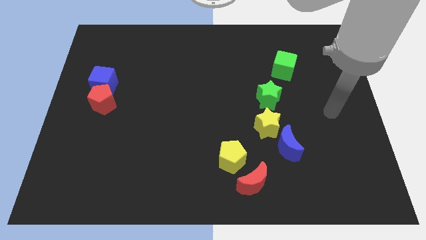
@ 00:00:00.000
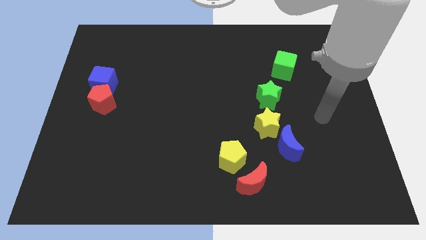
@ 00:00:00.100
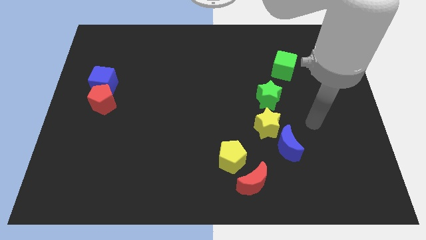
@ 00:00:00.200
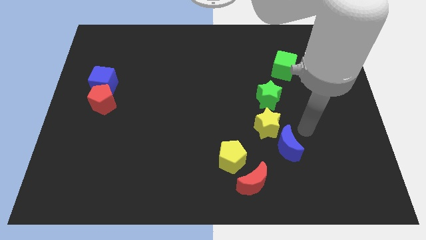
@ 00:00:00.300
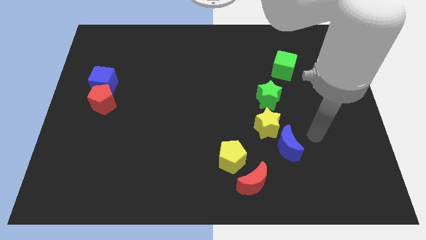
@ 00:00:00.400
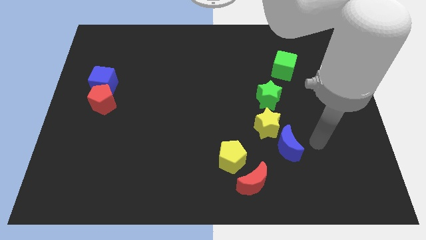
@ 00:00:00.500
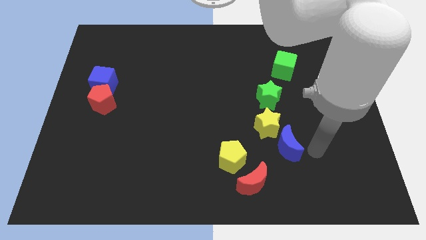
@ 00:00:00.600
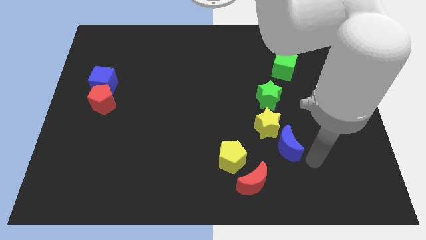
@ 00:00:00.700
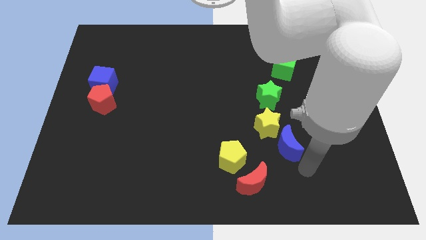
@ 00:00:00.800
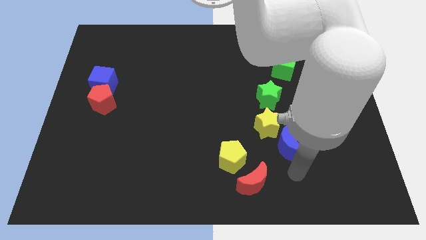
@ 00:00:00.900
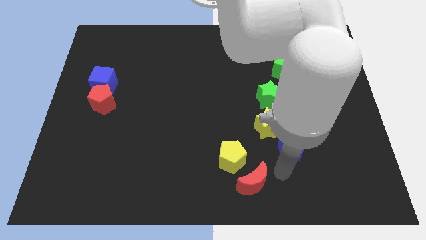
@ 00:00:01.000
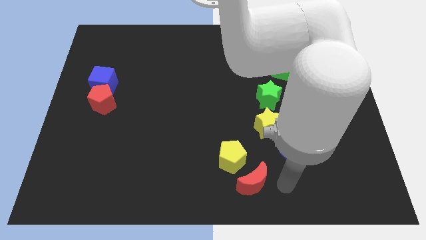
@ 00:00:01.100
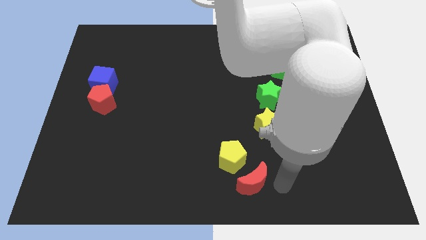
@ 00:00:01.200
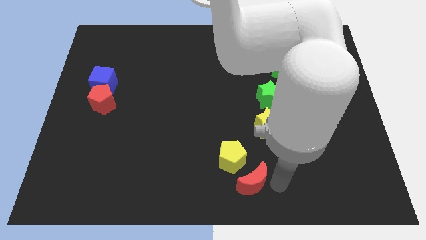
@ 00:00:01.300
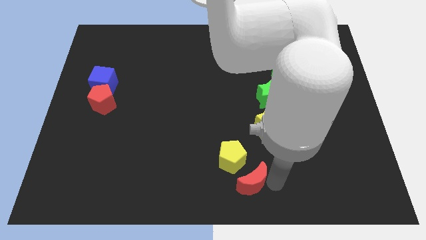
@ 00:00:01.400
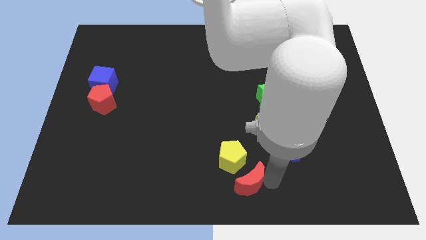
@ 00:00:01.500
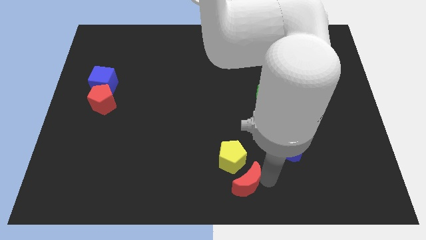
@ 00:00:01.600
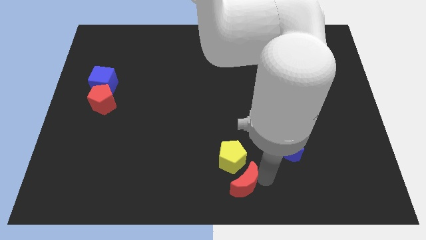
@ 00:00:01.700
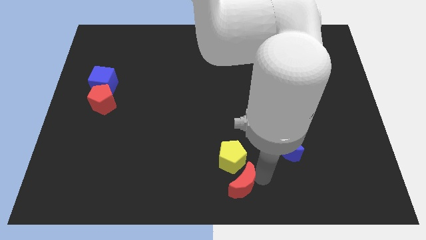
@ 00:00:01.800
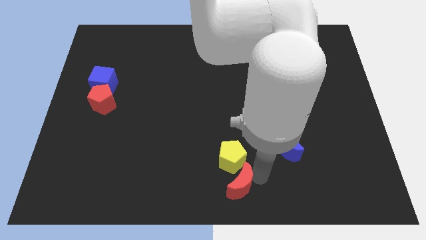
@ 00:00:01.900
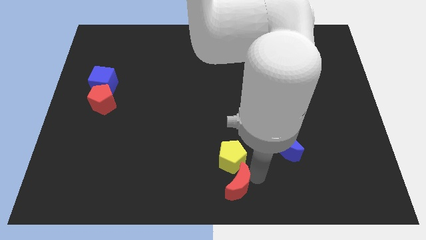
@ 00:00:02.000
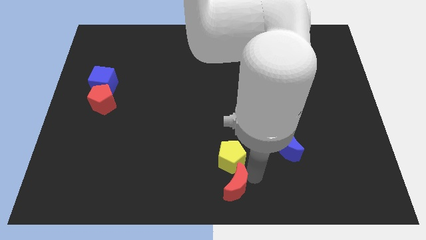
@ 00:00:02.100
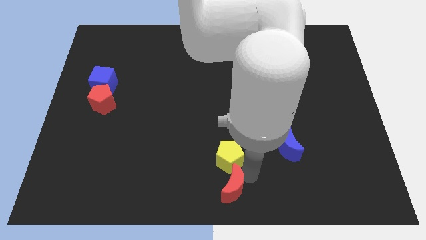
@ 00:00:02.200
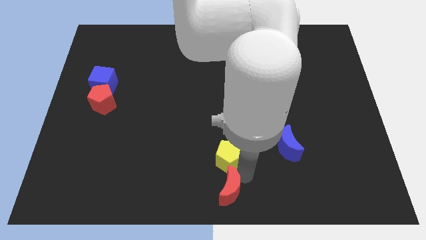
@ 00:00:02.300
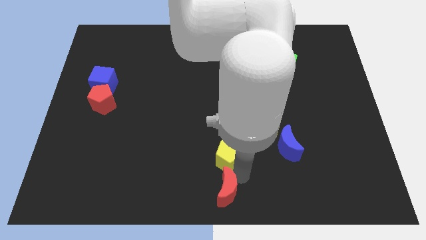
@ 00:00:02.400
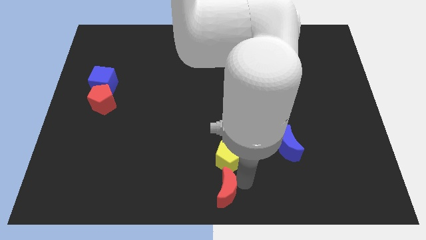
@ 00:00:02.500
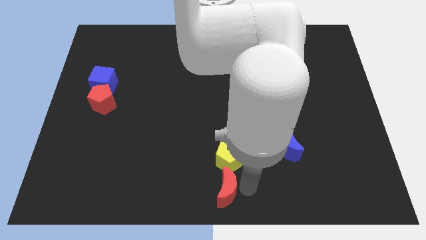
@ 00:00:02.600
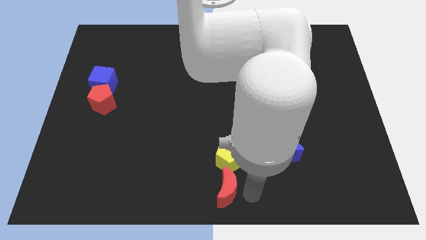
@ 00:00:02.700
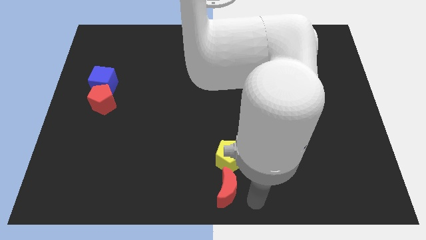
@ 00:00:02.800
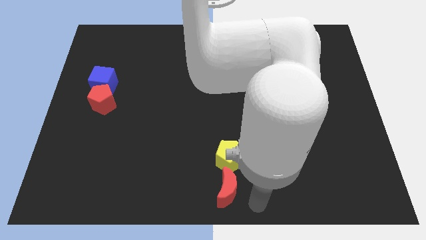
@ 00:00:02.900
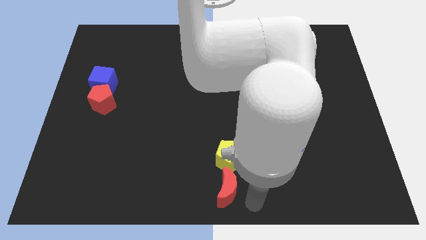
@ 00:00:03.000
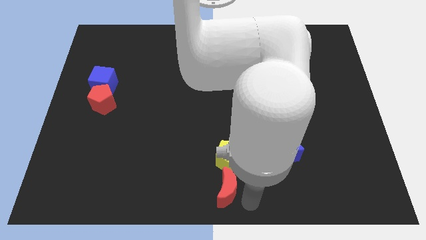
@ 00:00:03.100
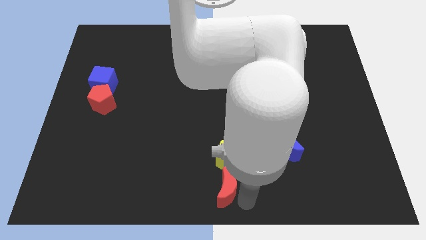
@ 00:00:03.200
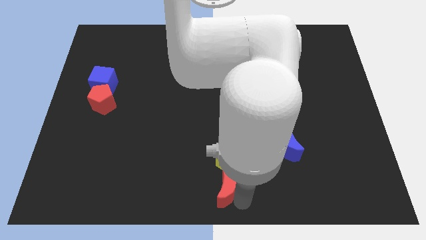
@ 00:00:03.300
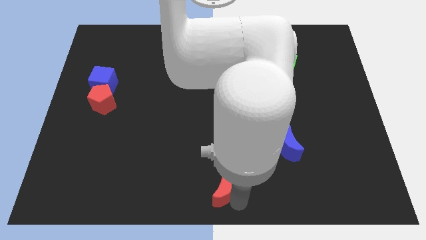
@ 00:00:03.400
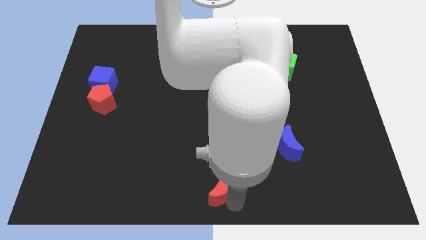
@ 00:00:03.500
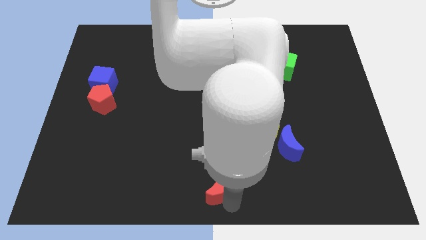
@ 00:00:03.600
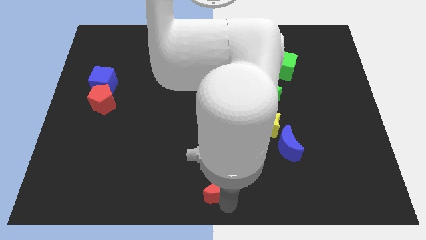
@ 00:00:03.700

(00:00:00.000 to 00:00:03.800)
slightly push the red moon to the left

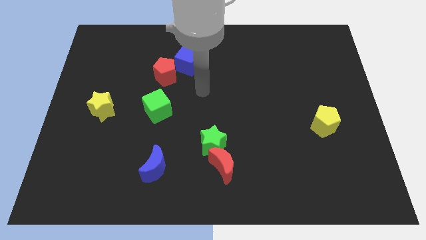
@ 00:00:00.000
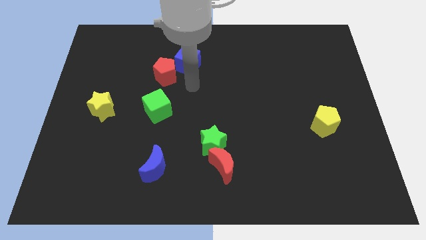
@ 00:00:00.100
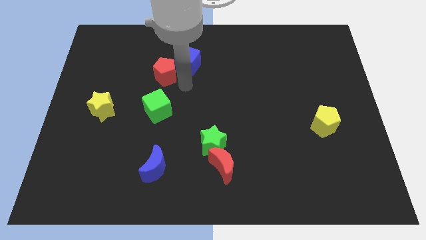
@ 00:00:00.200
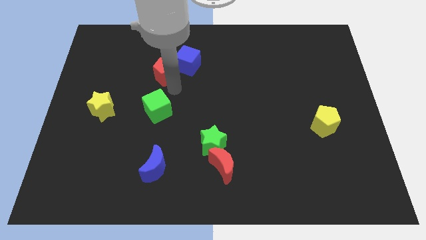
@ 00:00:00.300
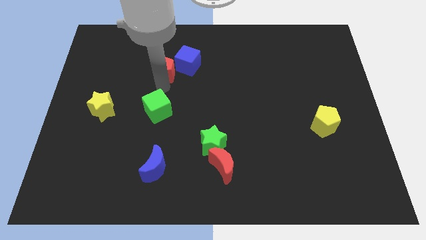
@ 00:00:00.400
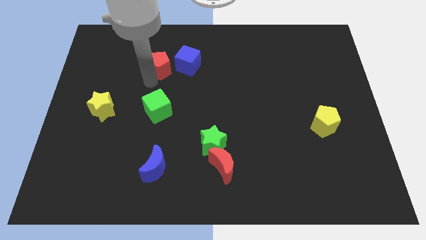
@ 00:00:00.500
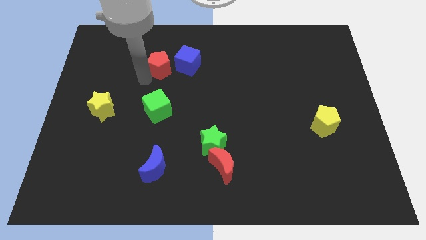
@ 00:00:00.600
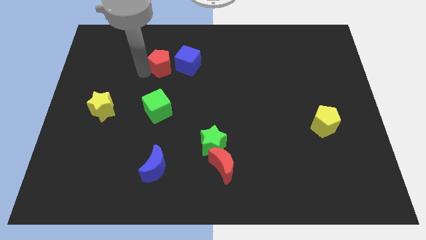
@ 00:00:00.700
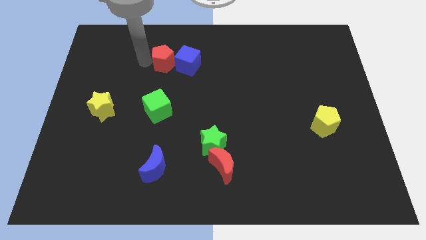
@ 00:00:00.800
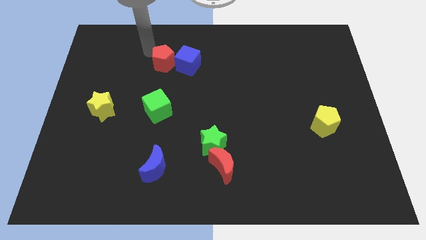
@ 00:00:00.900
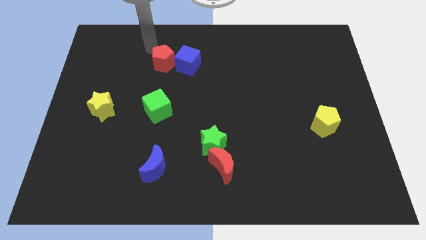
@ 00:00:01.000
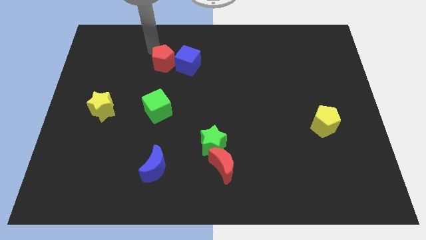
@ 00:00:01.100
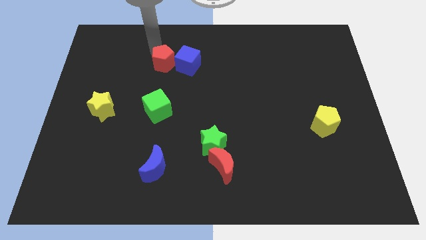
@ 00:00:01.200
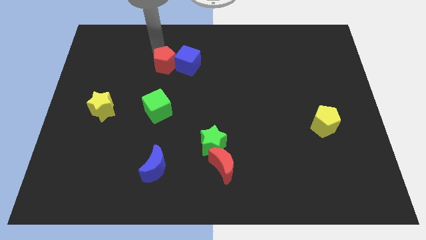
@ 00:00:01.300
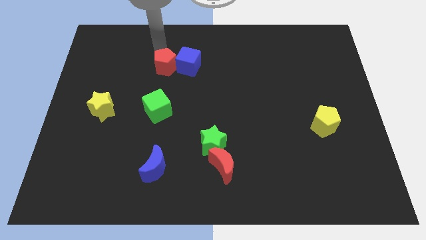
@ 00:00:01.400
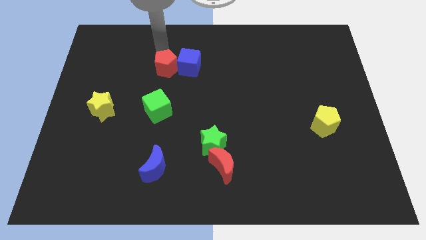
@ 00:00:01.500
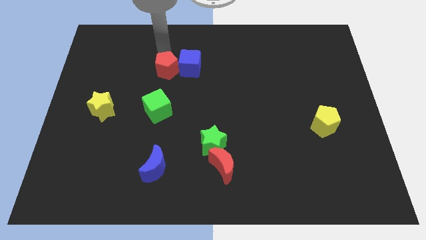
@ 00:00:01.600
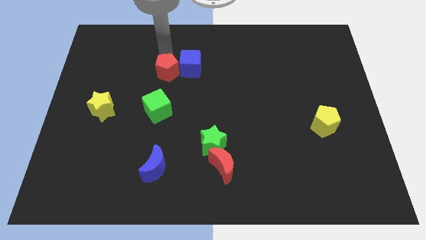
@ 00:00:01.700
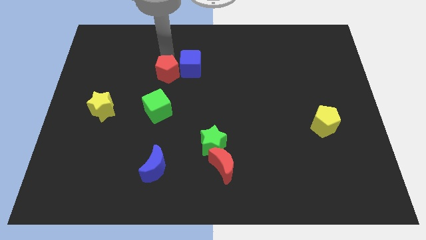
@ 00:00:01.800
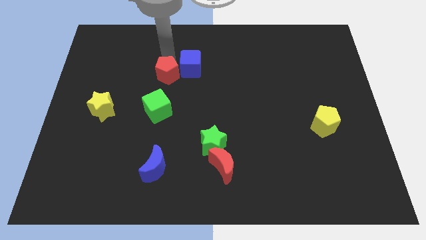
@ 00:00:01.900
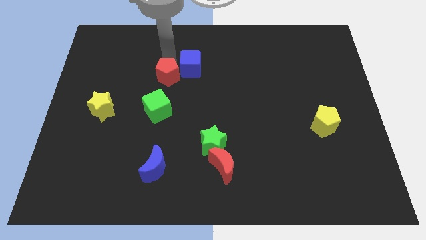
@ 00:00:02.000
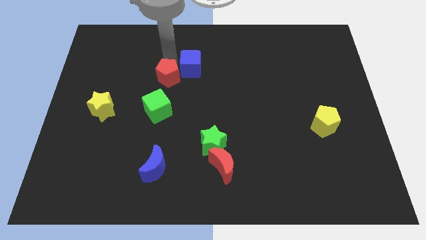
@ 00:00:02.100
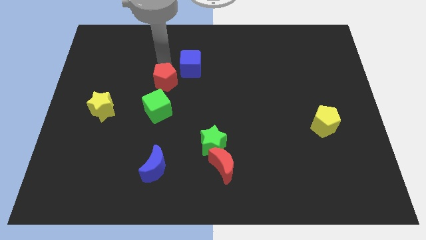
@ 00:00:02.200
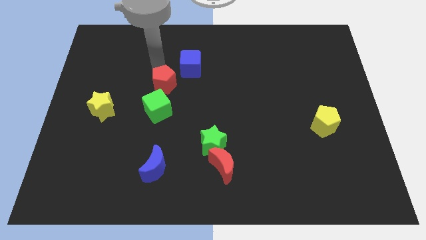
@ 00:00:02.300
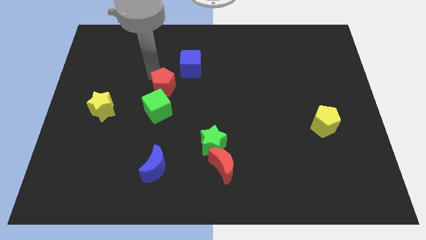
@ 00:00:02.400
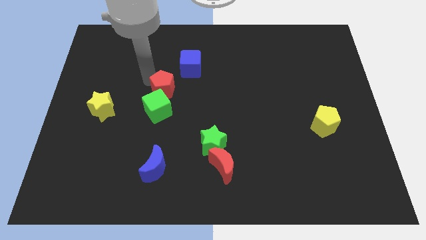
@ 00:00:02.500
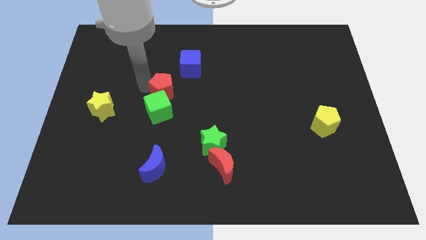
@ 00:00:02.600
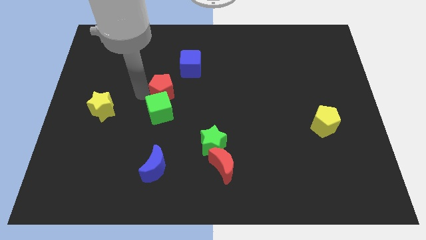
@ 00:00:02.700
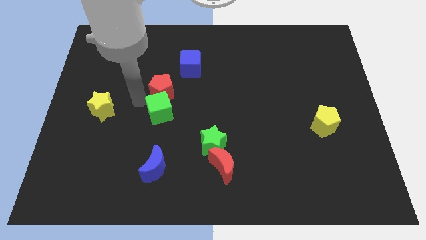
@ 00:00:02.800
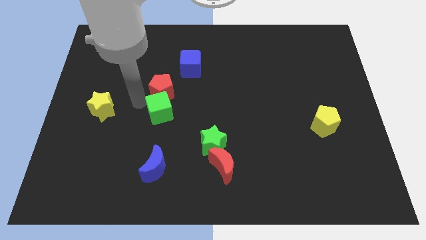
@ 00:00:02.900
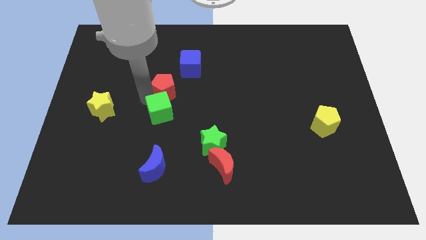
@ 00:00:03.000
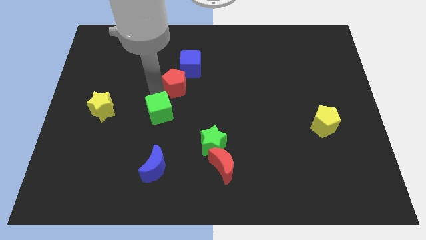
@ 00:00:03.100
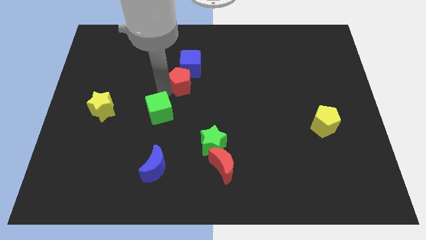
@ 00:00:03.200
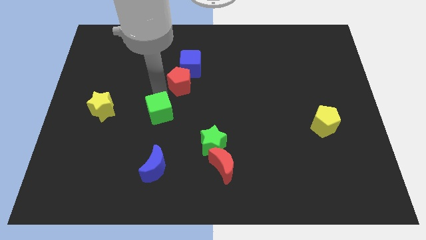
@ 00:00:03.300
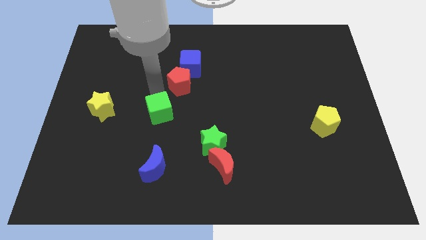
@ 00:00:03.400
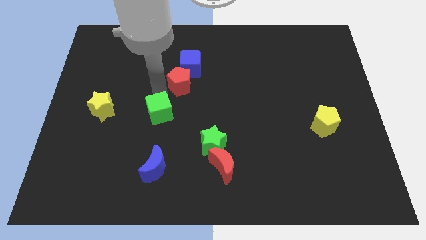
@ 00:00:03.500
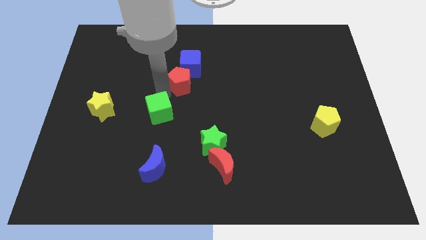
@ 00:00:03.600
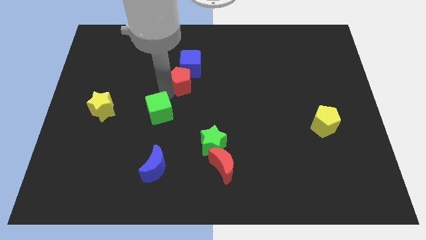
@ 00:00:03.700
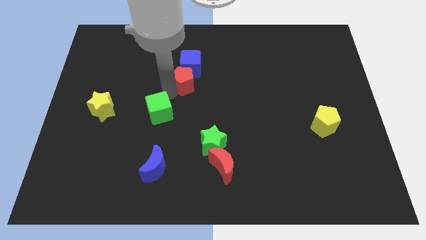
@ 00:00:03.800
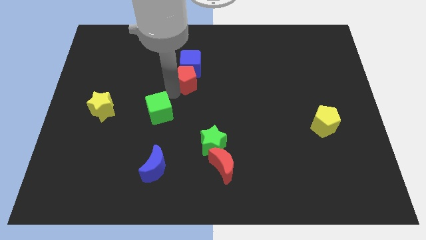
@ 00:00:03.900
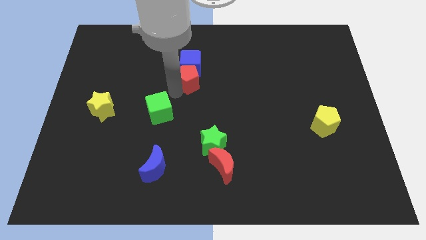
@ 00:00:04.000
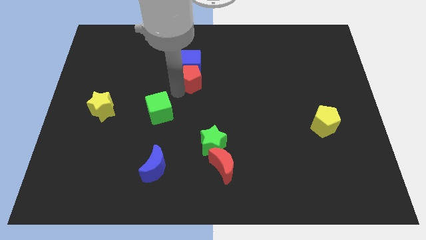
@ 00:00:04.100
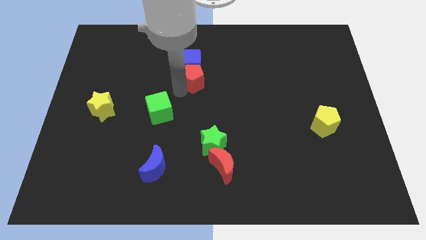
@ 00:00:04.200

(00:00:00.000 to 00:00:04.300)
move the red pentagon to the right a bit
